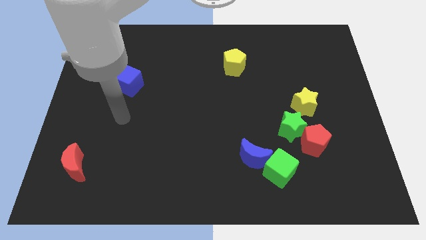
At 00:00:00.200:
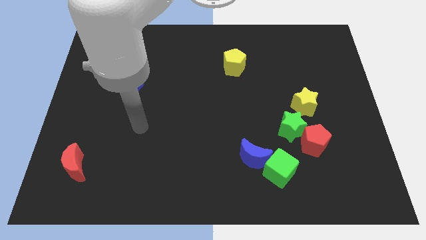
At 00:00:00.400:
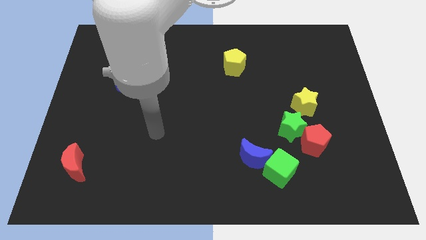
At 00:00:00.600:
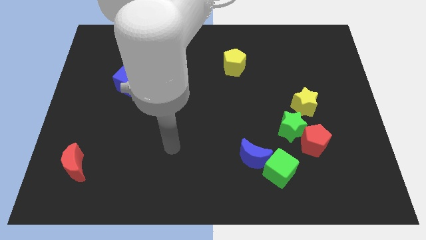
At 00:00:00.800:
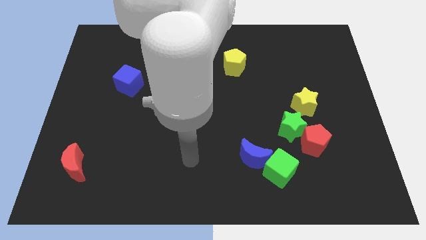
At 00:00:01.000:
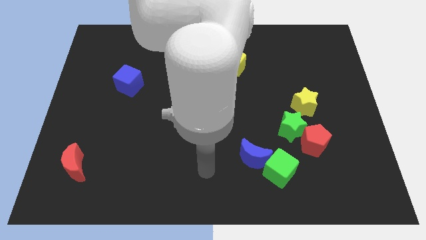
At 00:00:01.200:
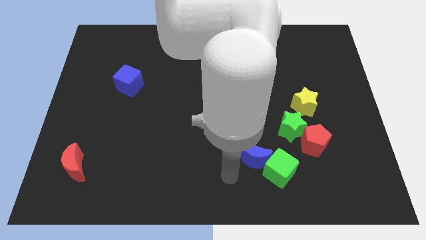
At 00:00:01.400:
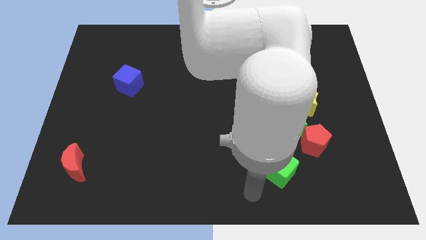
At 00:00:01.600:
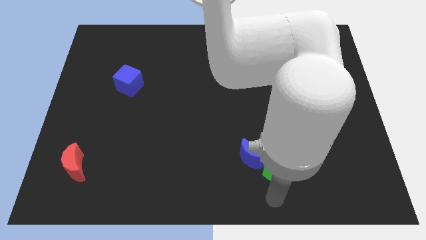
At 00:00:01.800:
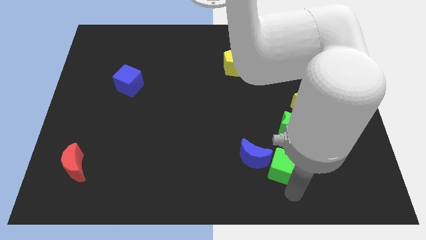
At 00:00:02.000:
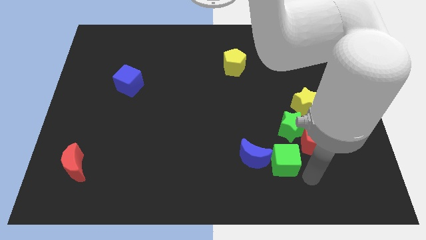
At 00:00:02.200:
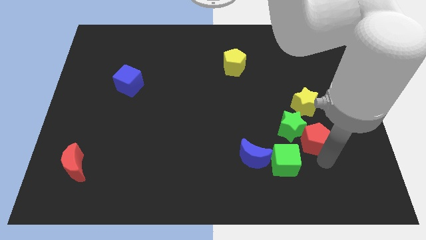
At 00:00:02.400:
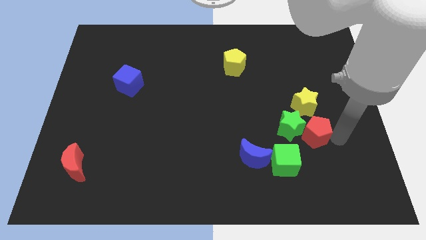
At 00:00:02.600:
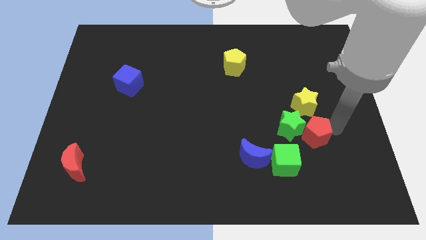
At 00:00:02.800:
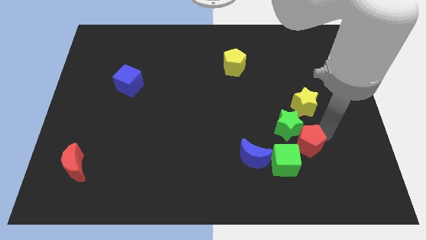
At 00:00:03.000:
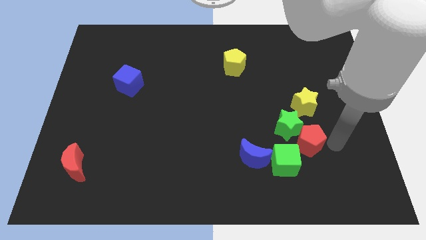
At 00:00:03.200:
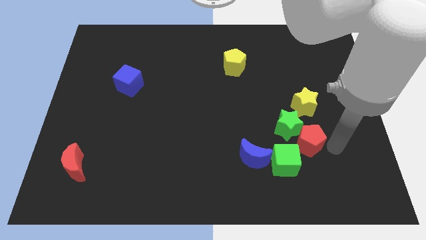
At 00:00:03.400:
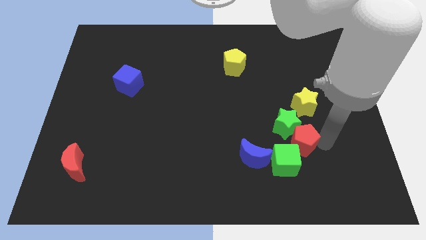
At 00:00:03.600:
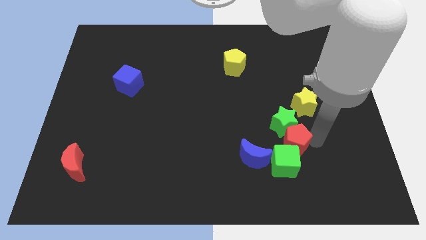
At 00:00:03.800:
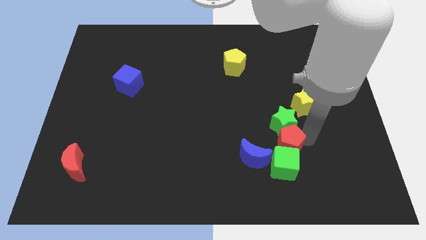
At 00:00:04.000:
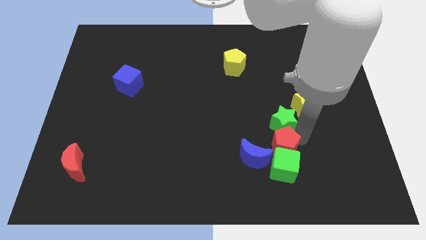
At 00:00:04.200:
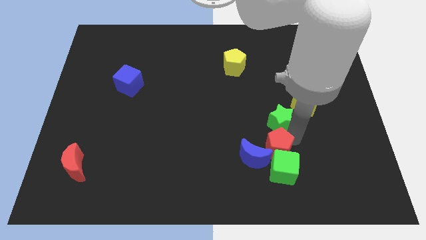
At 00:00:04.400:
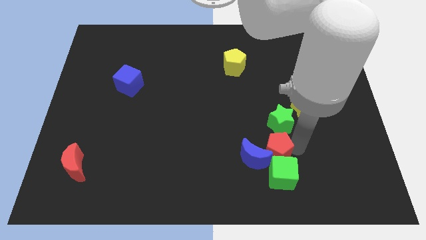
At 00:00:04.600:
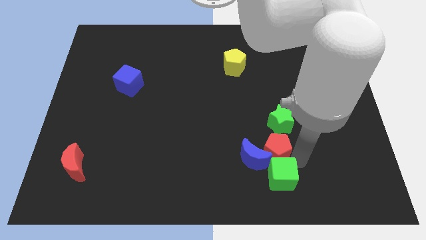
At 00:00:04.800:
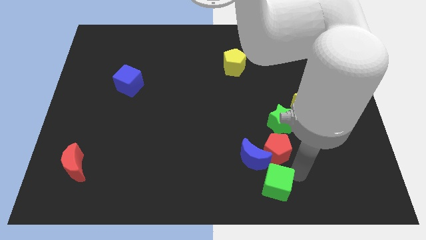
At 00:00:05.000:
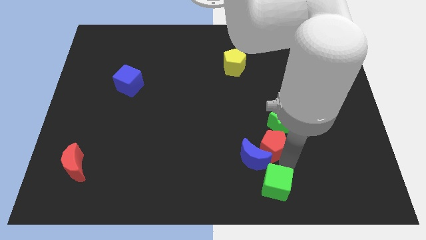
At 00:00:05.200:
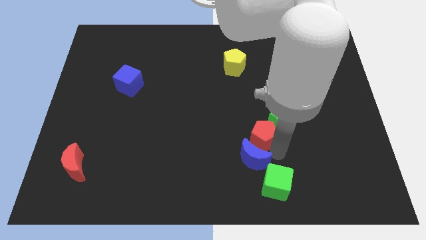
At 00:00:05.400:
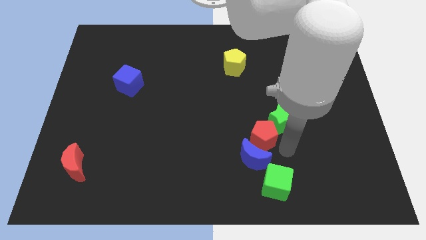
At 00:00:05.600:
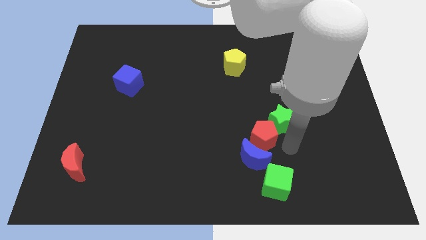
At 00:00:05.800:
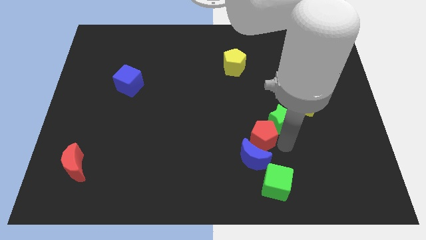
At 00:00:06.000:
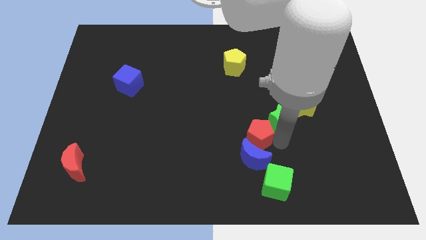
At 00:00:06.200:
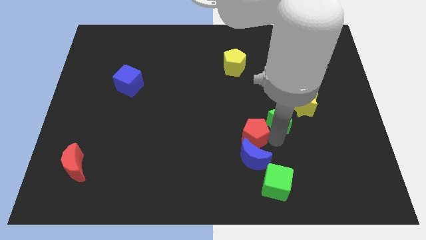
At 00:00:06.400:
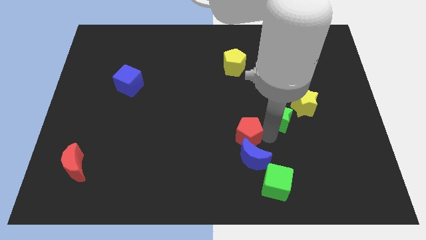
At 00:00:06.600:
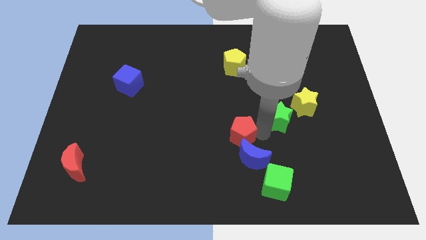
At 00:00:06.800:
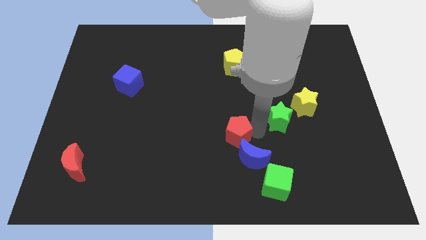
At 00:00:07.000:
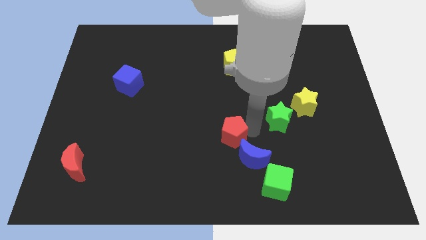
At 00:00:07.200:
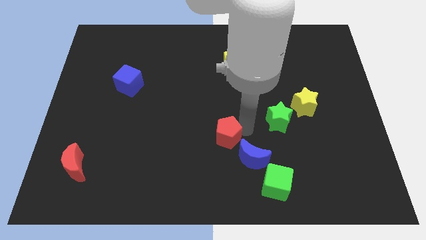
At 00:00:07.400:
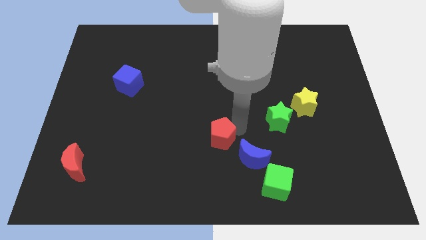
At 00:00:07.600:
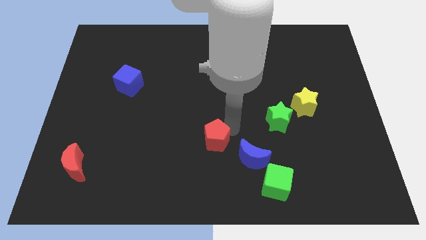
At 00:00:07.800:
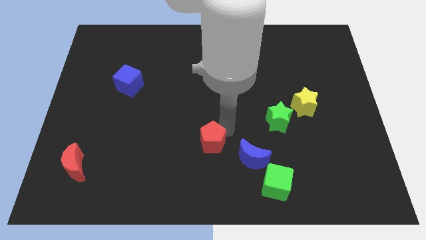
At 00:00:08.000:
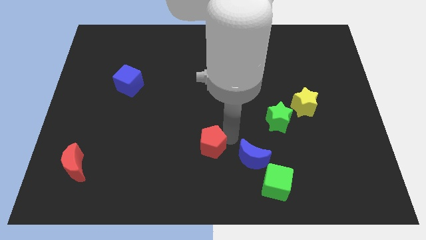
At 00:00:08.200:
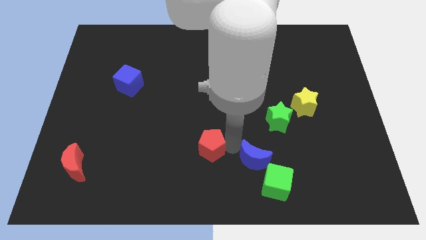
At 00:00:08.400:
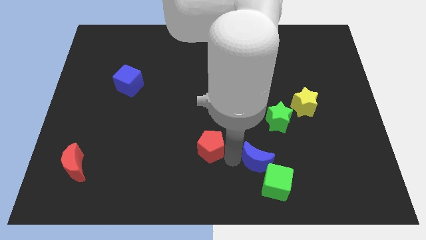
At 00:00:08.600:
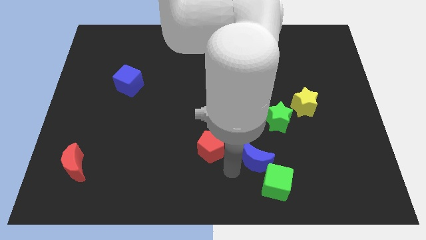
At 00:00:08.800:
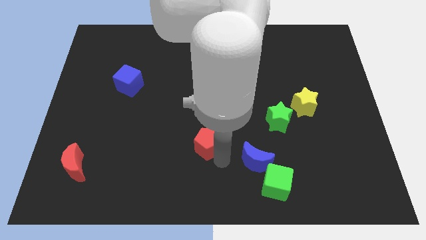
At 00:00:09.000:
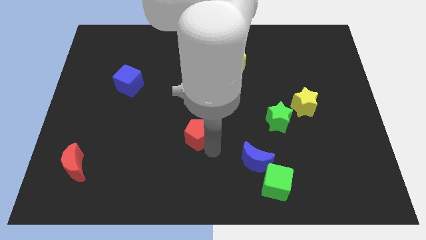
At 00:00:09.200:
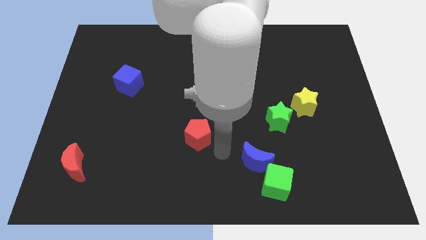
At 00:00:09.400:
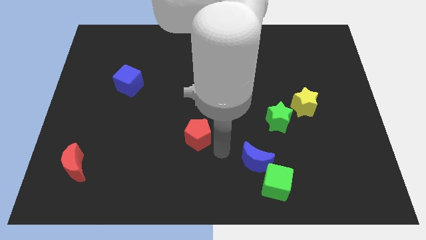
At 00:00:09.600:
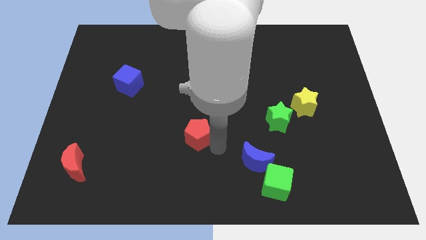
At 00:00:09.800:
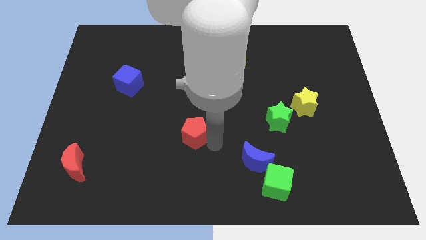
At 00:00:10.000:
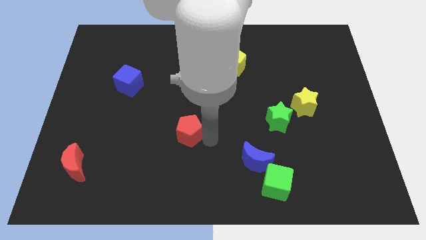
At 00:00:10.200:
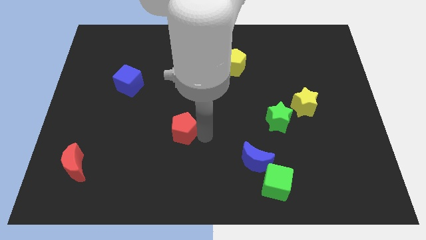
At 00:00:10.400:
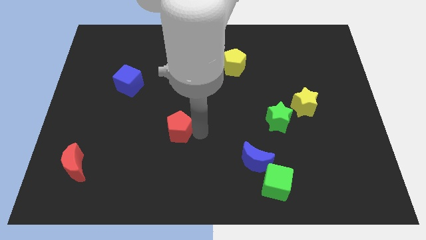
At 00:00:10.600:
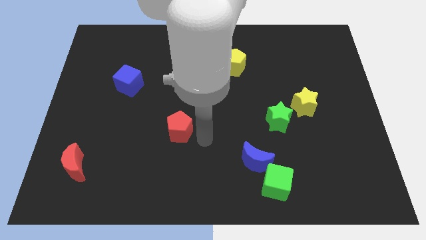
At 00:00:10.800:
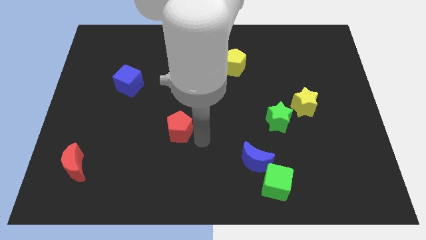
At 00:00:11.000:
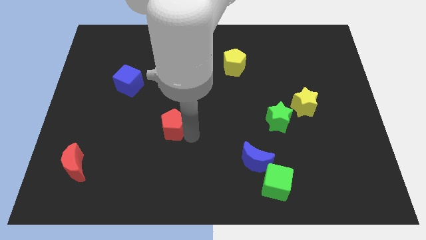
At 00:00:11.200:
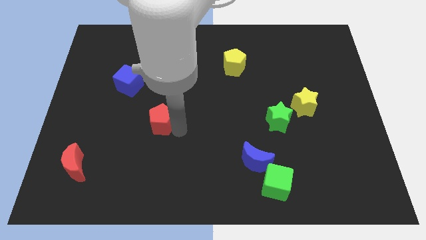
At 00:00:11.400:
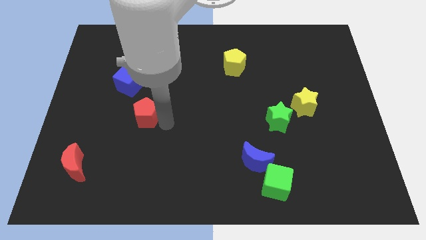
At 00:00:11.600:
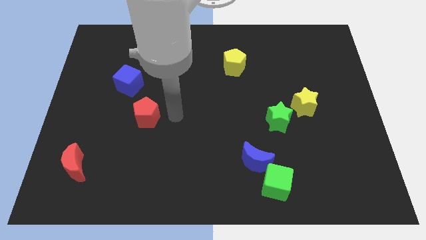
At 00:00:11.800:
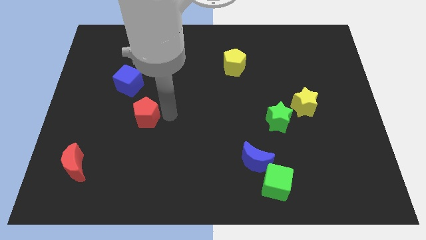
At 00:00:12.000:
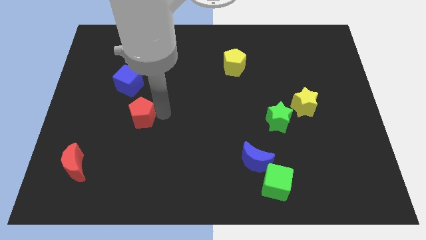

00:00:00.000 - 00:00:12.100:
push the red pentagon below the blue cube

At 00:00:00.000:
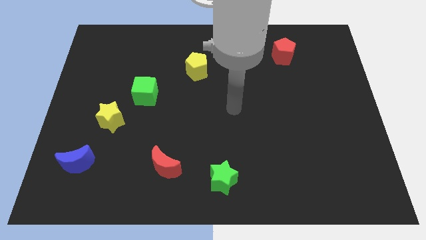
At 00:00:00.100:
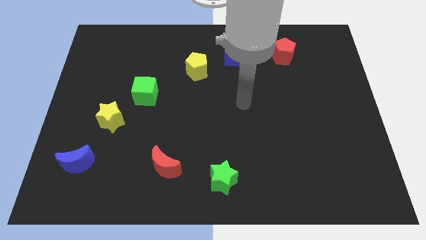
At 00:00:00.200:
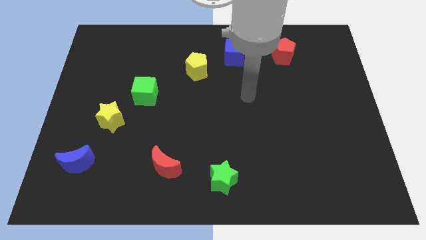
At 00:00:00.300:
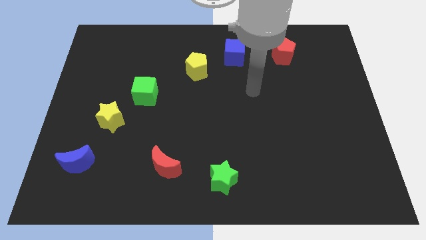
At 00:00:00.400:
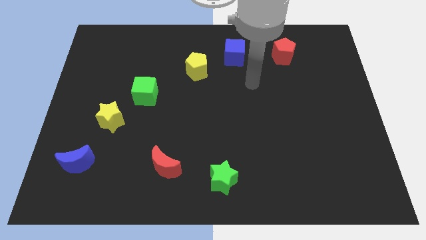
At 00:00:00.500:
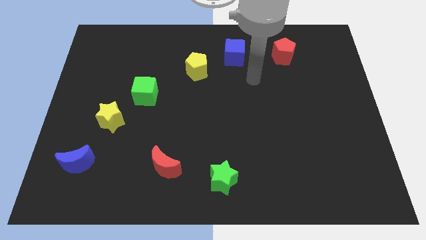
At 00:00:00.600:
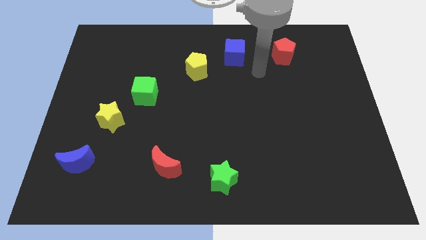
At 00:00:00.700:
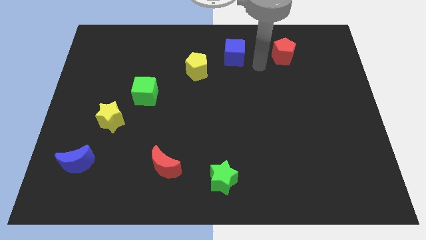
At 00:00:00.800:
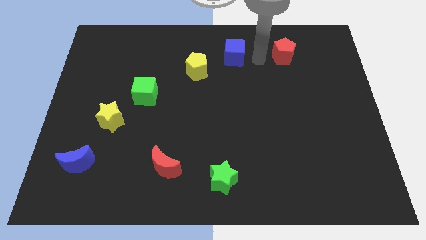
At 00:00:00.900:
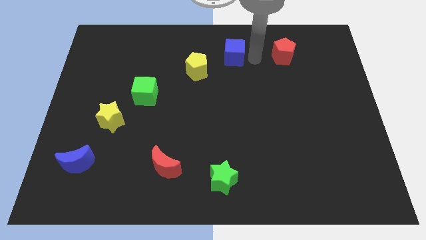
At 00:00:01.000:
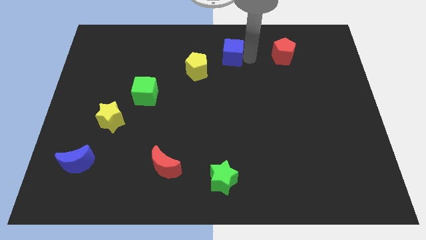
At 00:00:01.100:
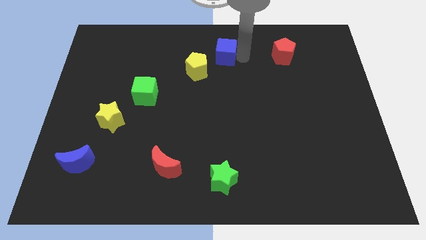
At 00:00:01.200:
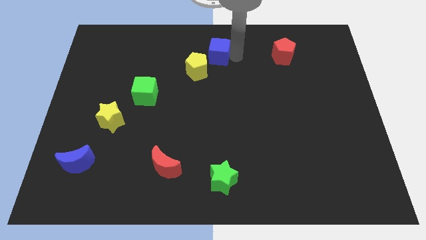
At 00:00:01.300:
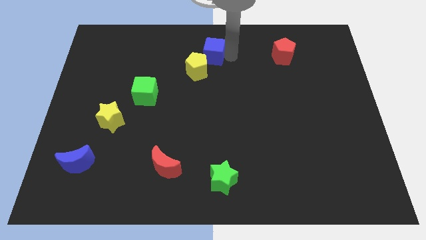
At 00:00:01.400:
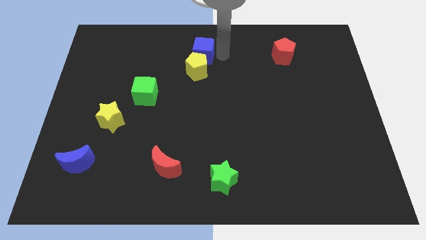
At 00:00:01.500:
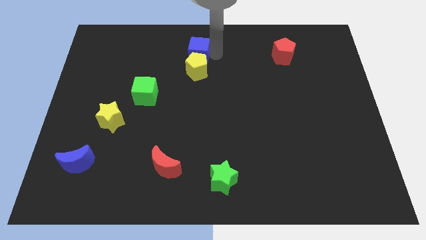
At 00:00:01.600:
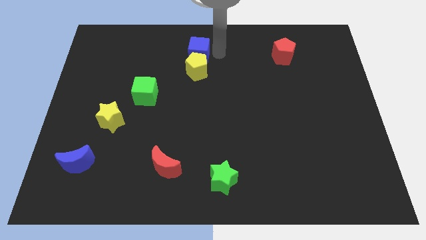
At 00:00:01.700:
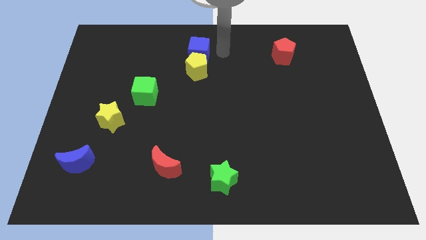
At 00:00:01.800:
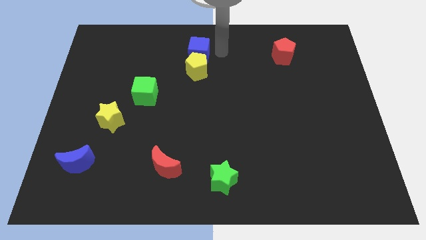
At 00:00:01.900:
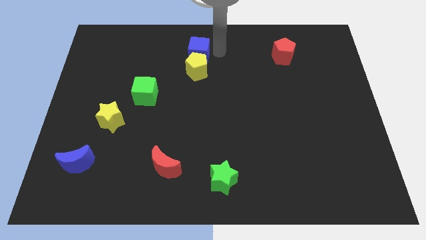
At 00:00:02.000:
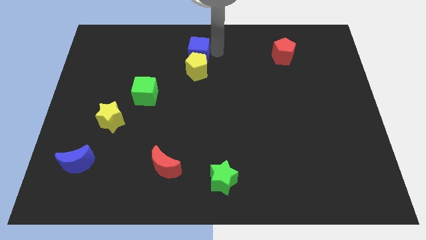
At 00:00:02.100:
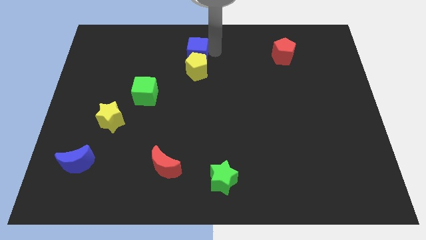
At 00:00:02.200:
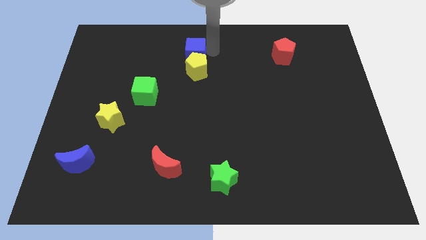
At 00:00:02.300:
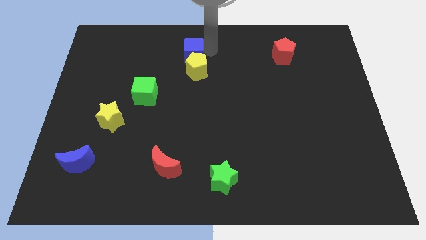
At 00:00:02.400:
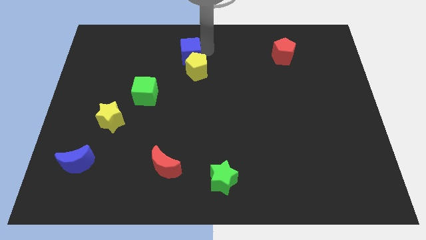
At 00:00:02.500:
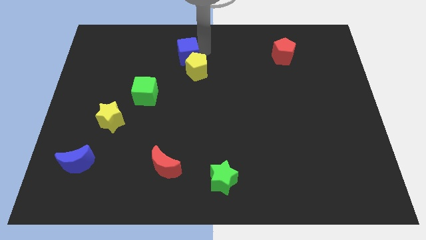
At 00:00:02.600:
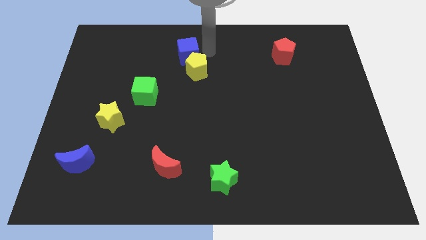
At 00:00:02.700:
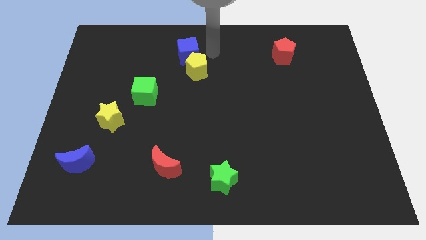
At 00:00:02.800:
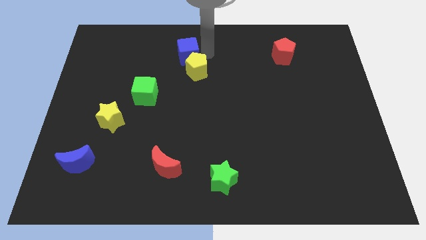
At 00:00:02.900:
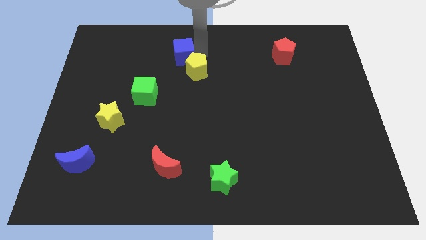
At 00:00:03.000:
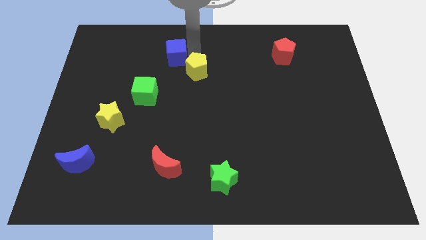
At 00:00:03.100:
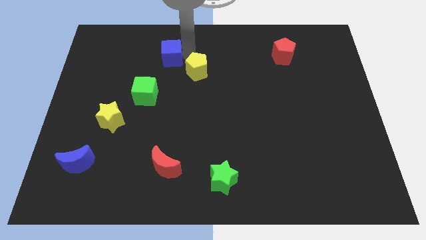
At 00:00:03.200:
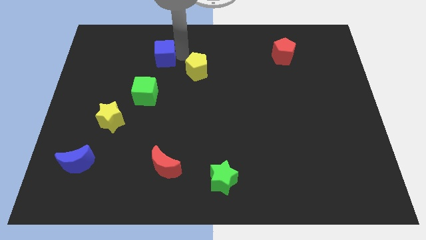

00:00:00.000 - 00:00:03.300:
move the blue cube to the top side of the green cube
